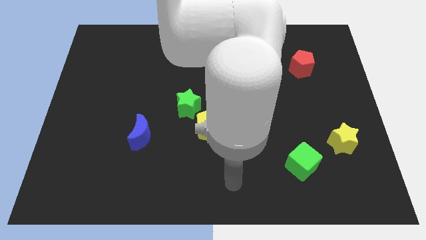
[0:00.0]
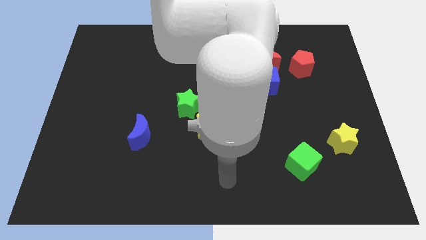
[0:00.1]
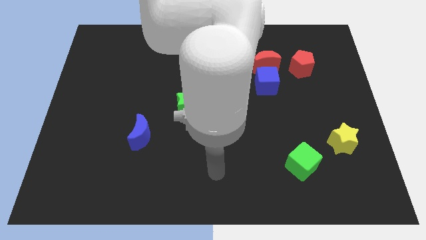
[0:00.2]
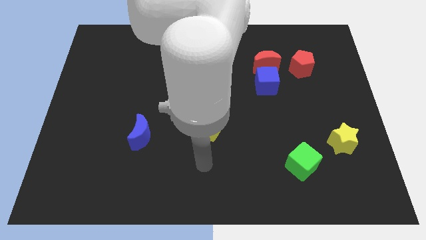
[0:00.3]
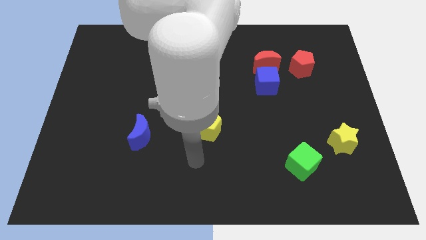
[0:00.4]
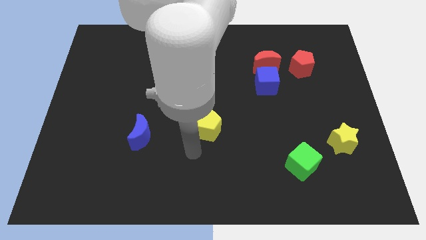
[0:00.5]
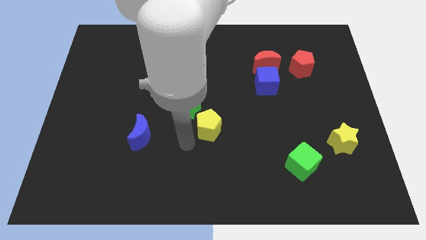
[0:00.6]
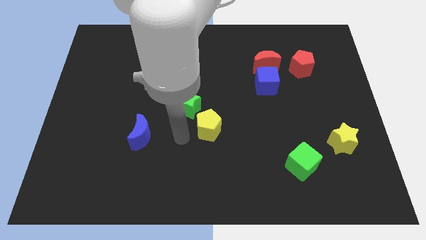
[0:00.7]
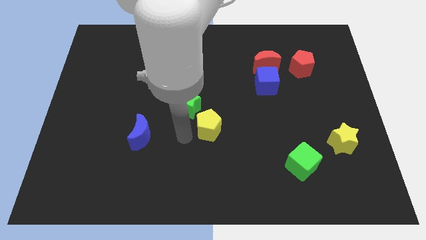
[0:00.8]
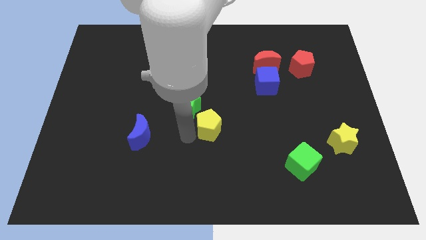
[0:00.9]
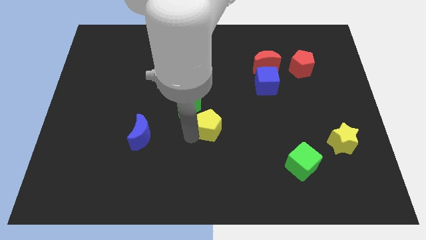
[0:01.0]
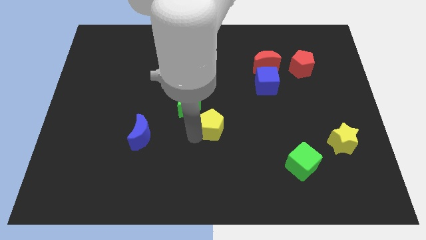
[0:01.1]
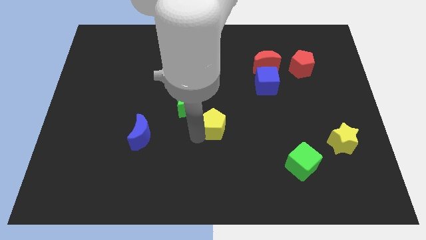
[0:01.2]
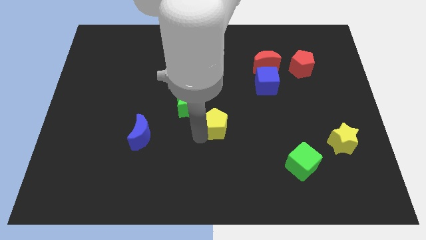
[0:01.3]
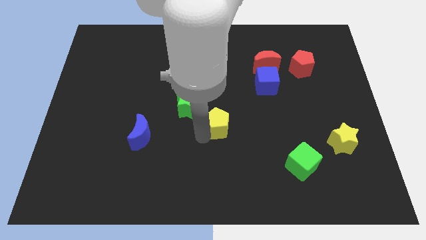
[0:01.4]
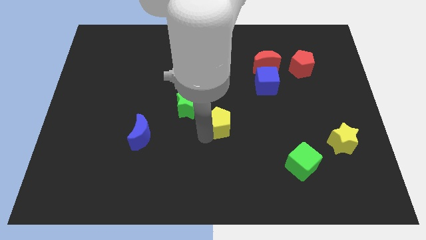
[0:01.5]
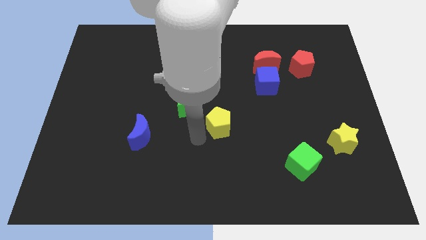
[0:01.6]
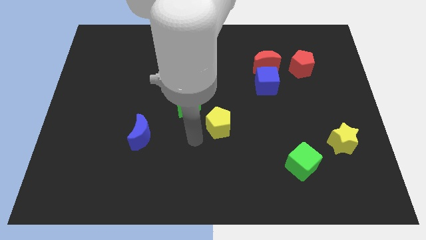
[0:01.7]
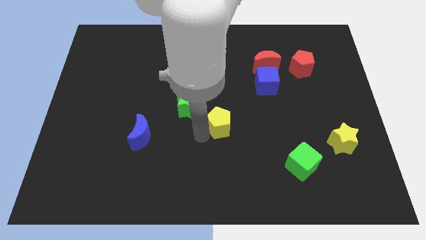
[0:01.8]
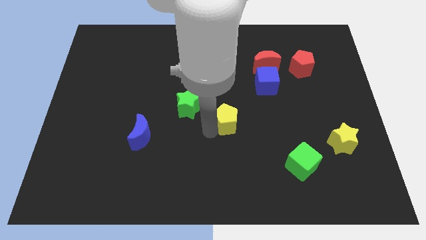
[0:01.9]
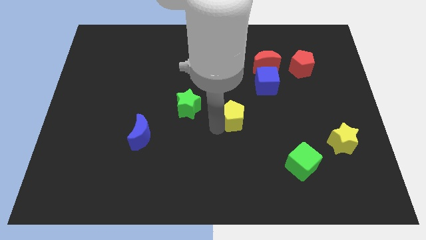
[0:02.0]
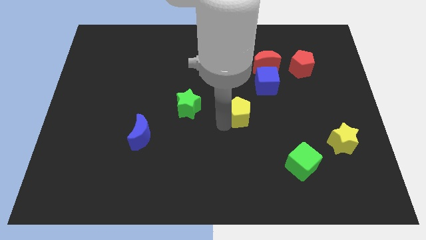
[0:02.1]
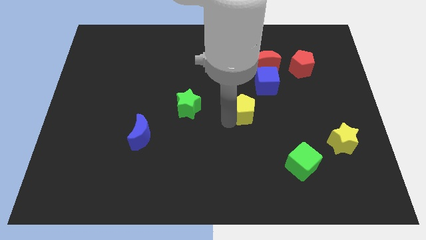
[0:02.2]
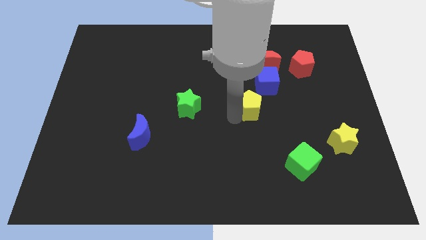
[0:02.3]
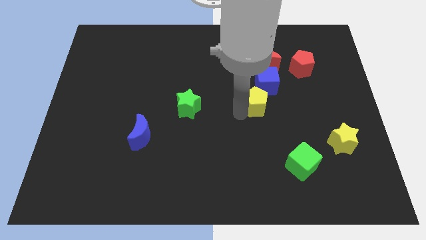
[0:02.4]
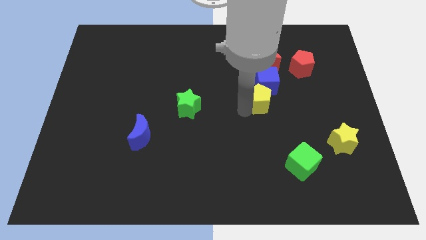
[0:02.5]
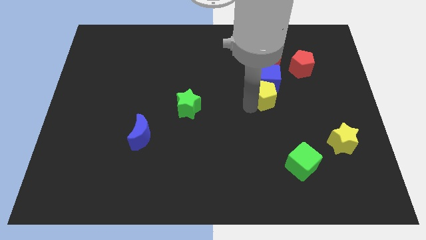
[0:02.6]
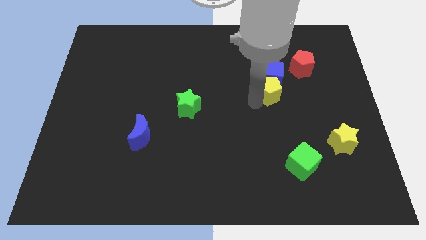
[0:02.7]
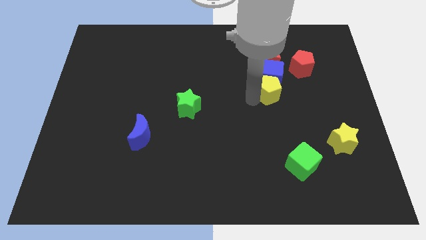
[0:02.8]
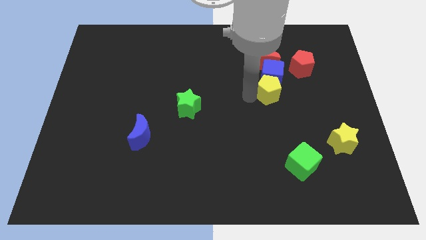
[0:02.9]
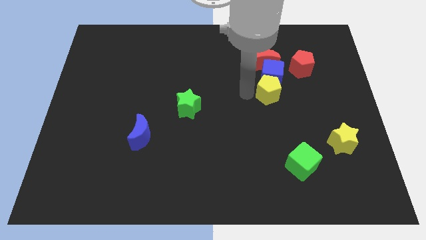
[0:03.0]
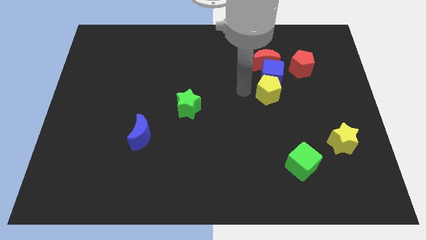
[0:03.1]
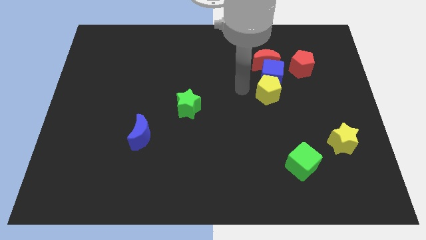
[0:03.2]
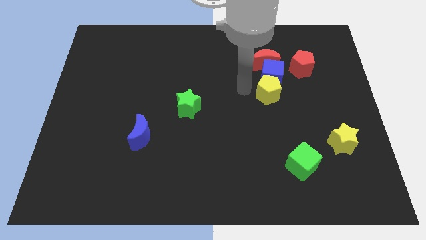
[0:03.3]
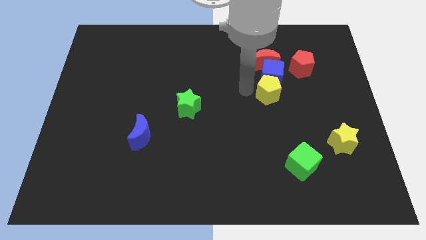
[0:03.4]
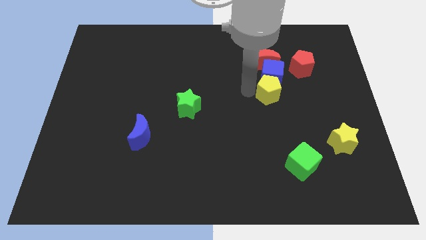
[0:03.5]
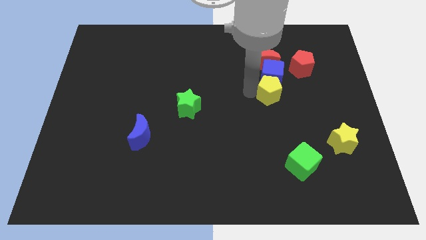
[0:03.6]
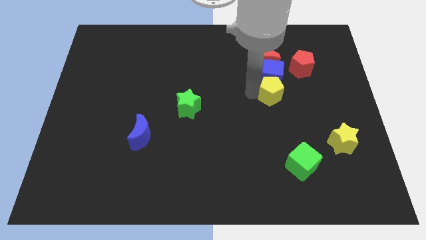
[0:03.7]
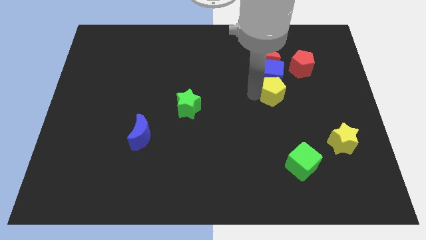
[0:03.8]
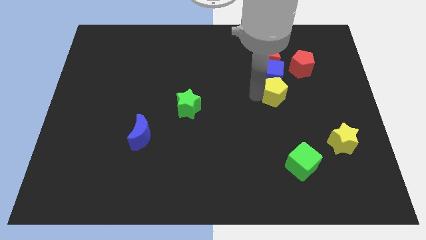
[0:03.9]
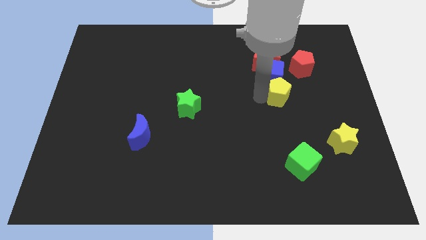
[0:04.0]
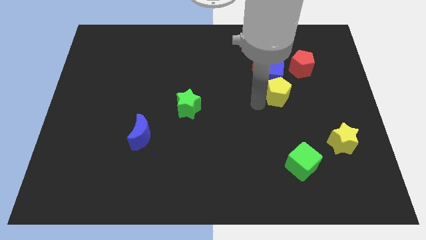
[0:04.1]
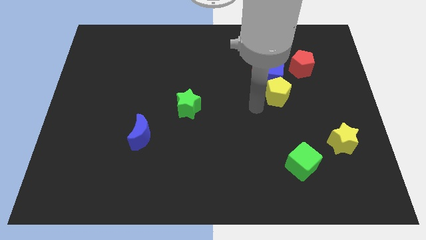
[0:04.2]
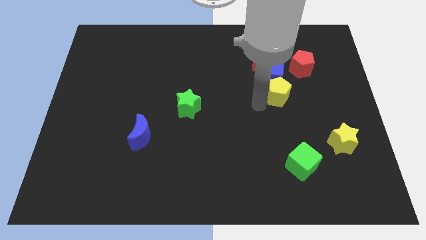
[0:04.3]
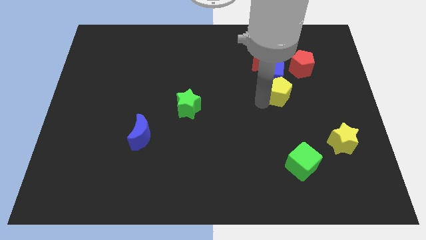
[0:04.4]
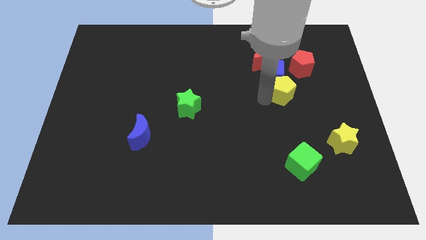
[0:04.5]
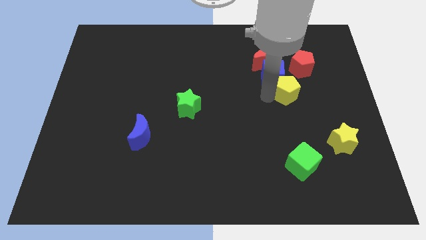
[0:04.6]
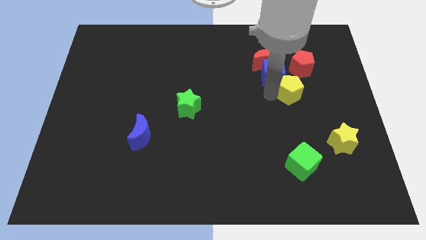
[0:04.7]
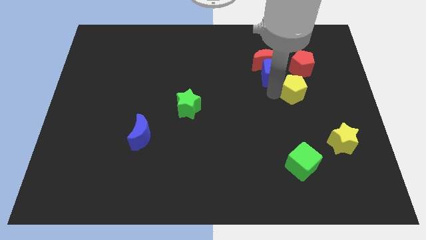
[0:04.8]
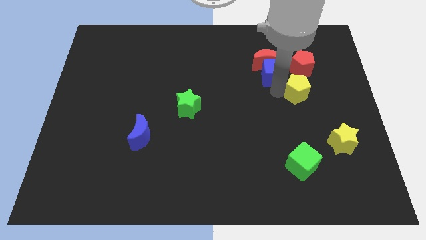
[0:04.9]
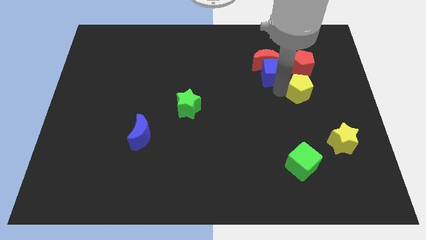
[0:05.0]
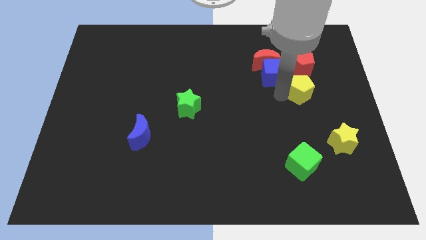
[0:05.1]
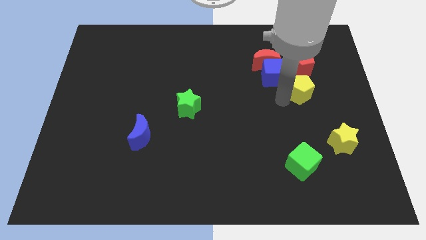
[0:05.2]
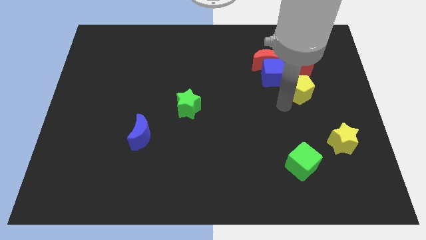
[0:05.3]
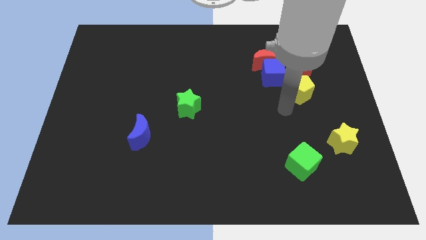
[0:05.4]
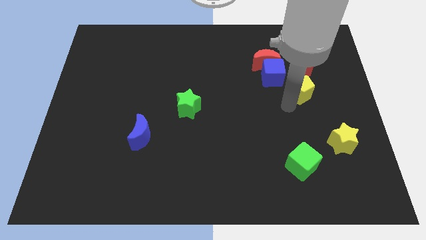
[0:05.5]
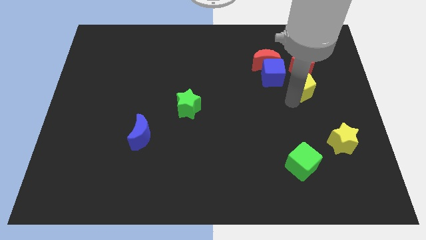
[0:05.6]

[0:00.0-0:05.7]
slide the yellow pentagon to the right side of the blue cube
